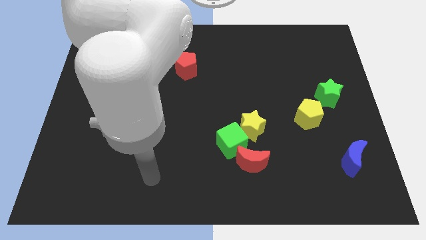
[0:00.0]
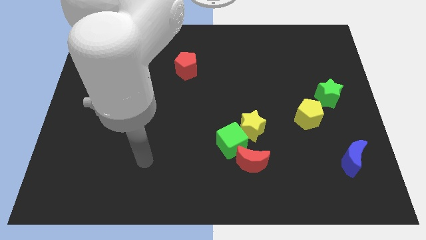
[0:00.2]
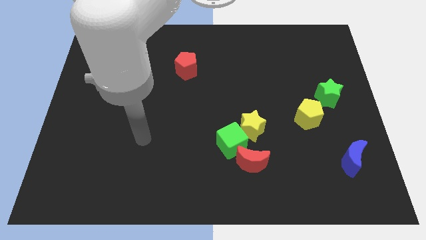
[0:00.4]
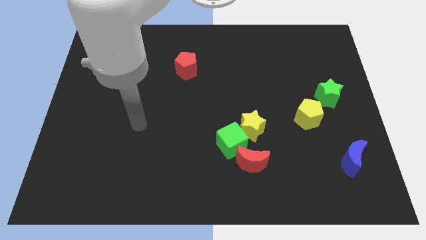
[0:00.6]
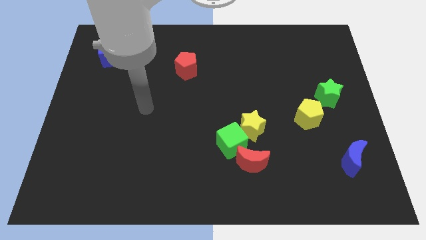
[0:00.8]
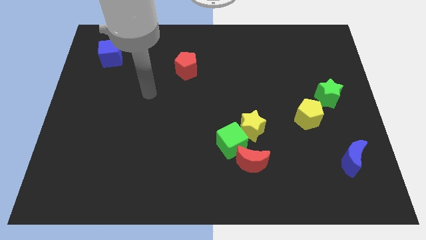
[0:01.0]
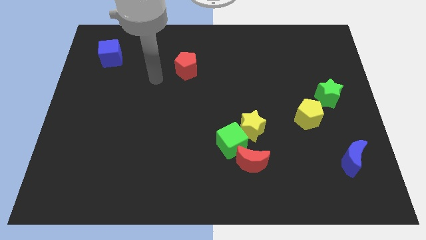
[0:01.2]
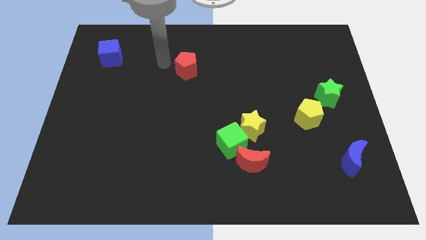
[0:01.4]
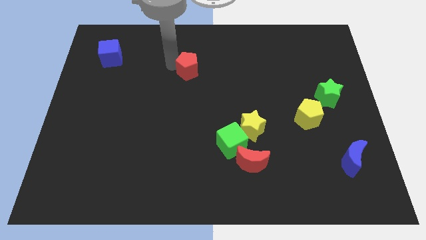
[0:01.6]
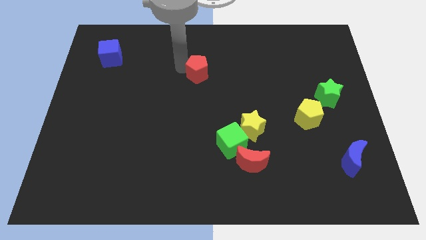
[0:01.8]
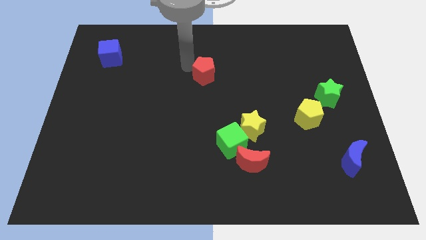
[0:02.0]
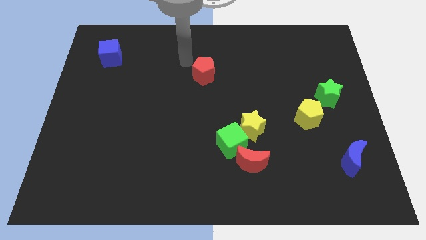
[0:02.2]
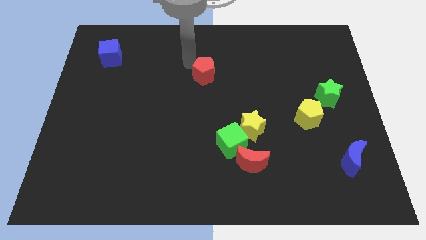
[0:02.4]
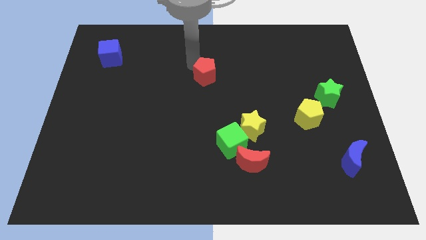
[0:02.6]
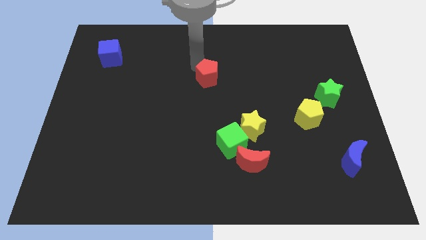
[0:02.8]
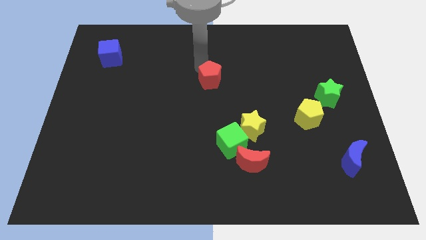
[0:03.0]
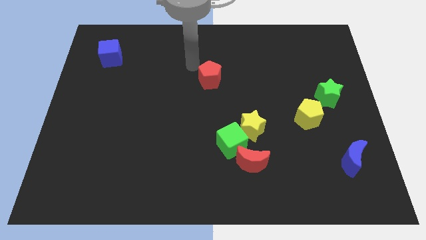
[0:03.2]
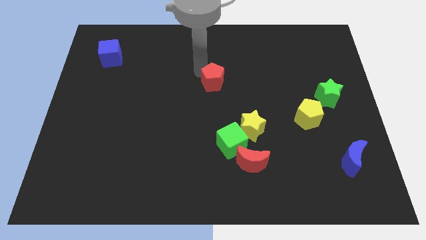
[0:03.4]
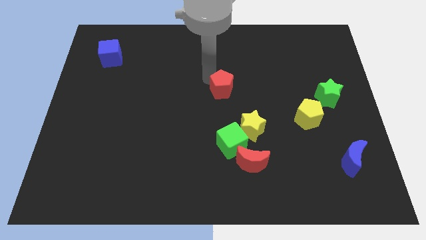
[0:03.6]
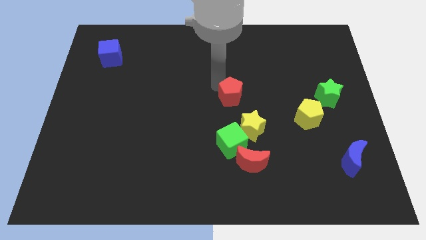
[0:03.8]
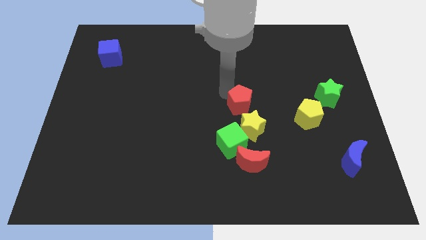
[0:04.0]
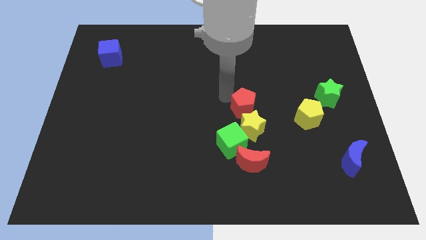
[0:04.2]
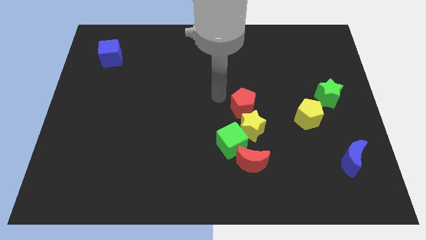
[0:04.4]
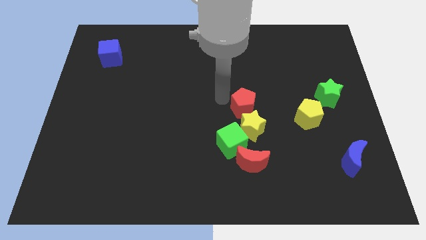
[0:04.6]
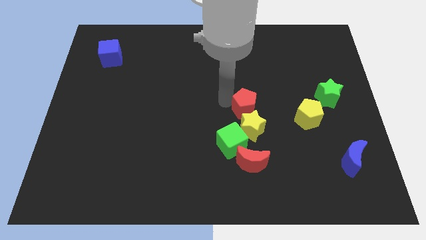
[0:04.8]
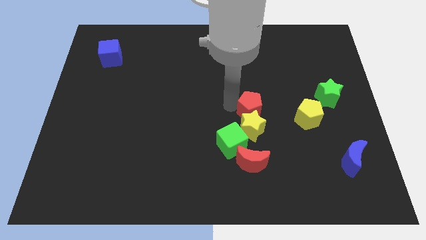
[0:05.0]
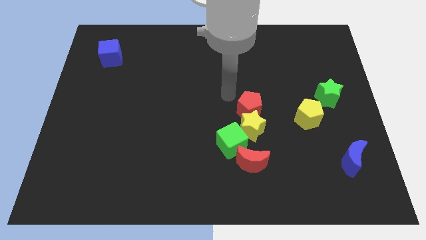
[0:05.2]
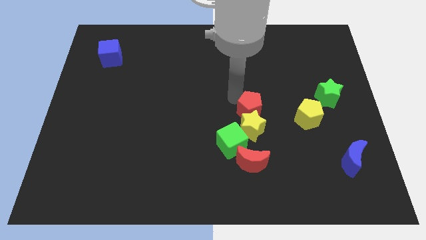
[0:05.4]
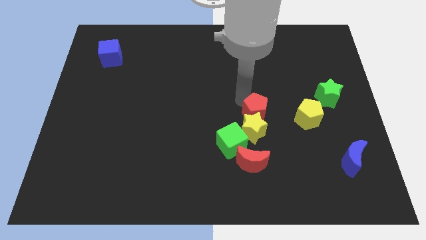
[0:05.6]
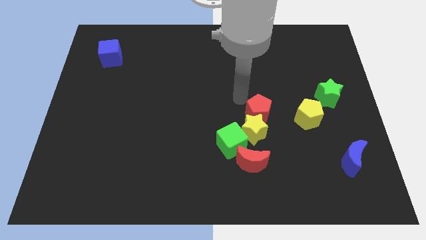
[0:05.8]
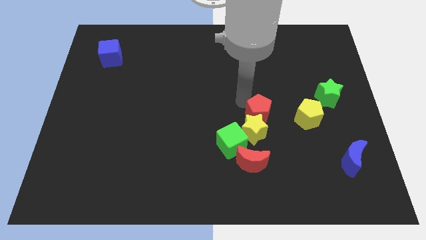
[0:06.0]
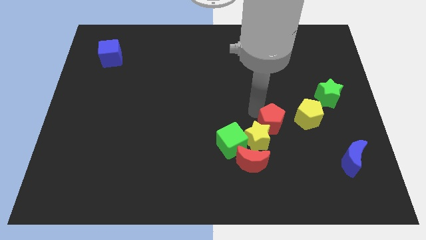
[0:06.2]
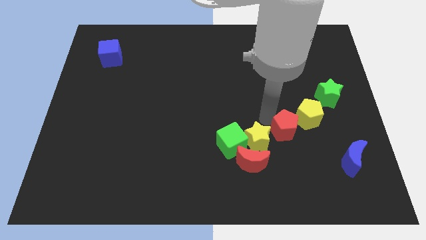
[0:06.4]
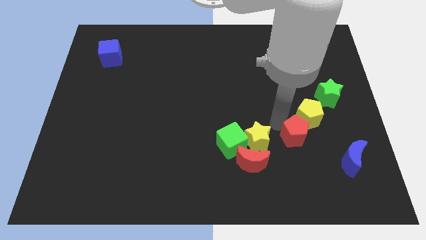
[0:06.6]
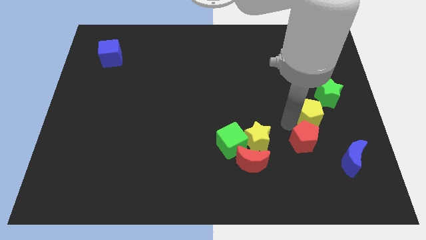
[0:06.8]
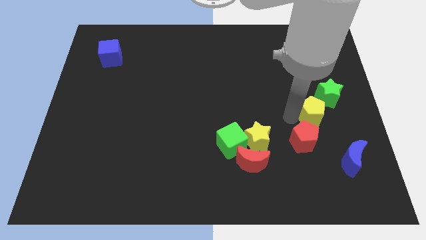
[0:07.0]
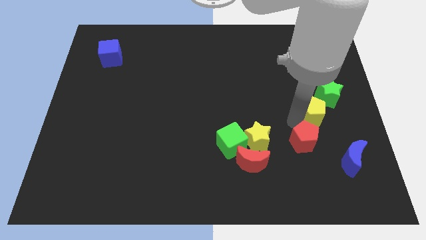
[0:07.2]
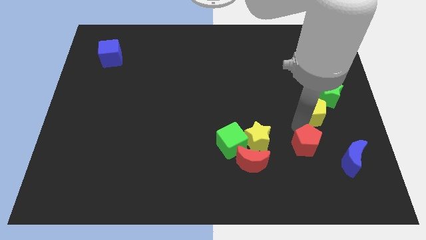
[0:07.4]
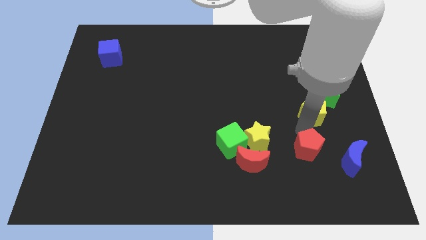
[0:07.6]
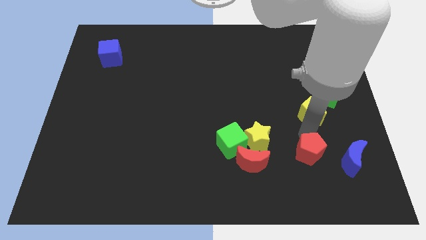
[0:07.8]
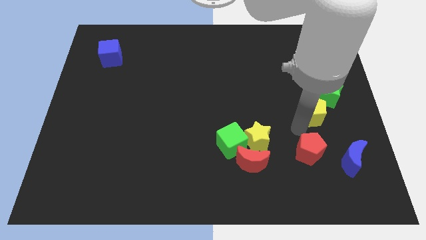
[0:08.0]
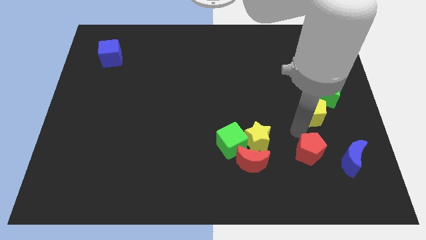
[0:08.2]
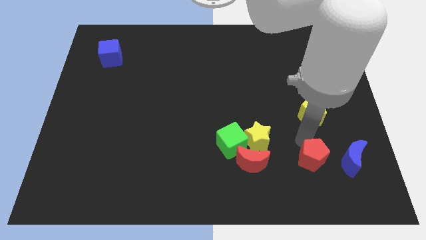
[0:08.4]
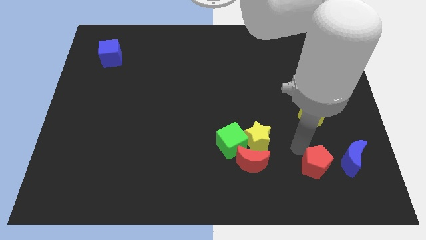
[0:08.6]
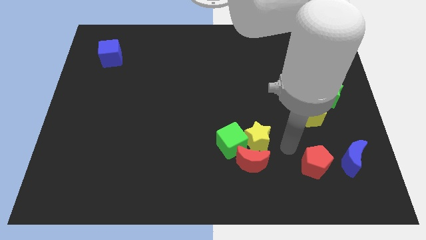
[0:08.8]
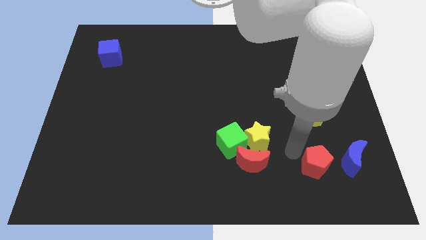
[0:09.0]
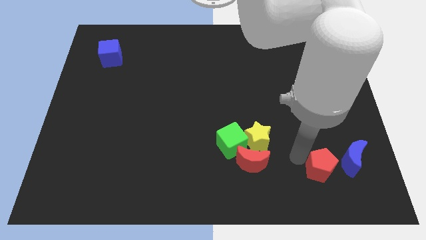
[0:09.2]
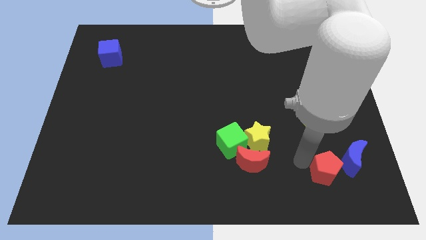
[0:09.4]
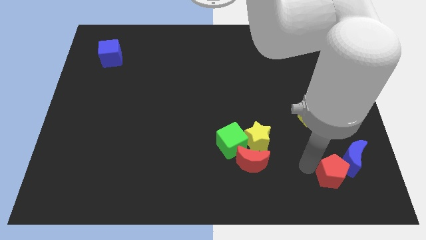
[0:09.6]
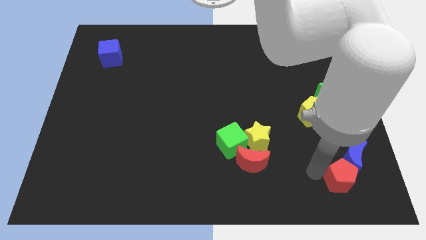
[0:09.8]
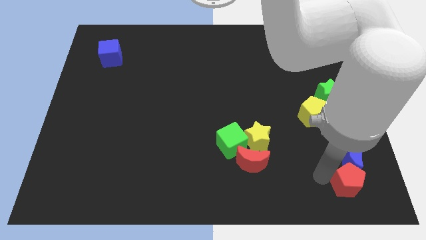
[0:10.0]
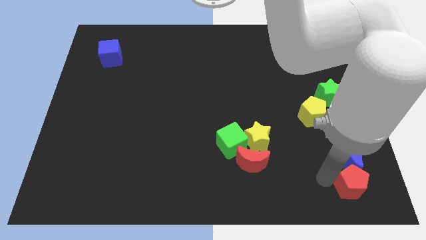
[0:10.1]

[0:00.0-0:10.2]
push the red pentagon to the lower right corner
